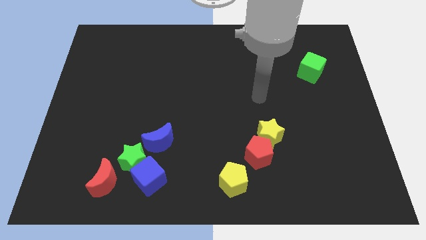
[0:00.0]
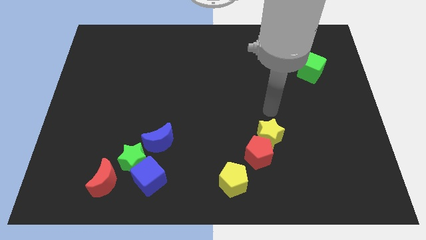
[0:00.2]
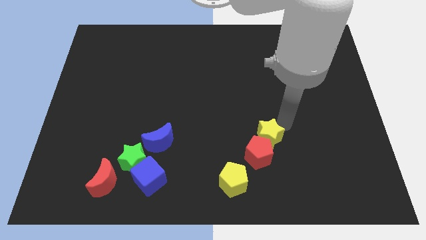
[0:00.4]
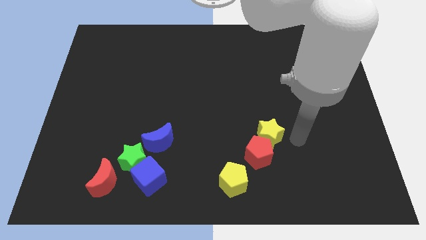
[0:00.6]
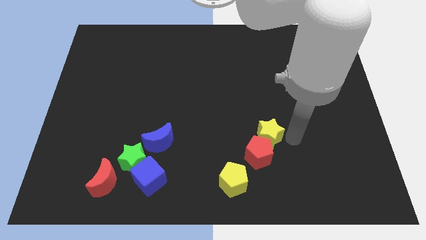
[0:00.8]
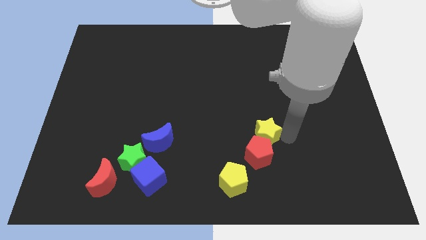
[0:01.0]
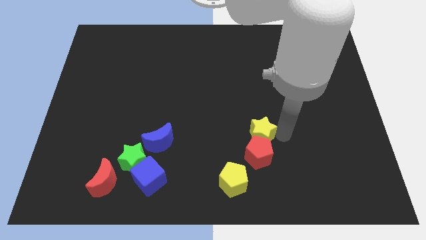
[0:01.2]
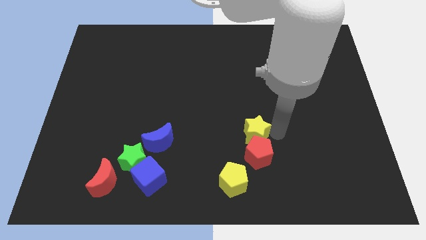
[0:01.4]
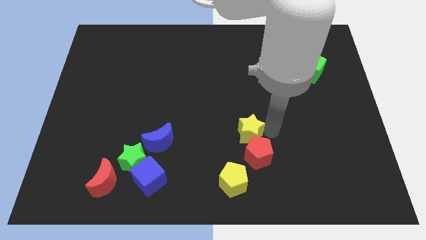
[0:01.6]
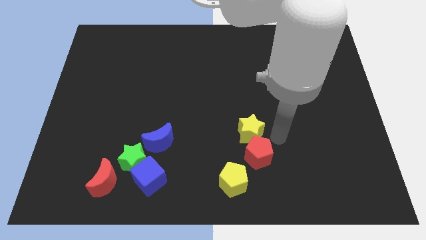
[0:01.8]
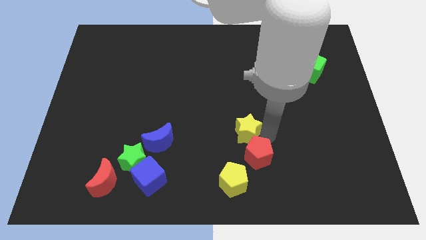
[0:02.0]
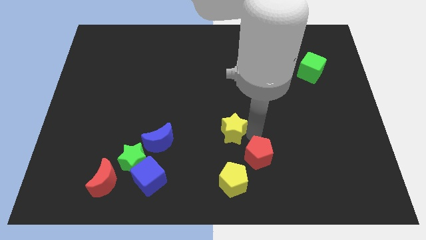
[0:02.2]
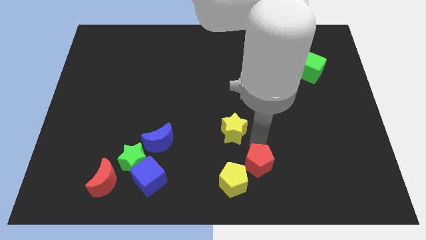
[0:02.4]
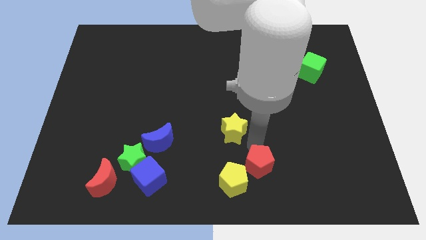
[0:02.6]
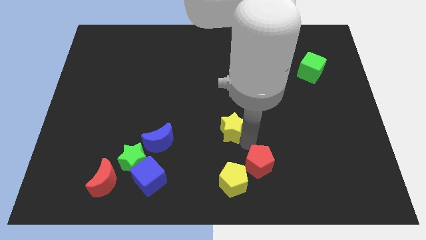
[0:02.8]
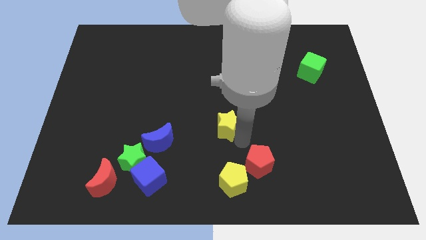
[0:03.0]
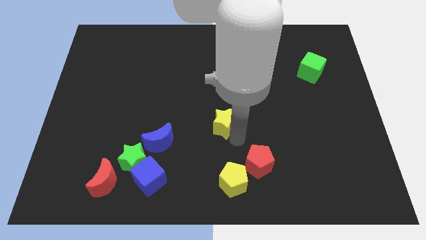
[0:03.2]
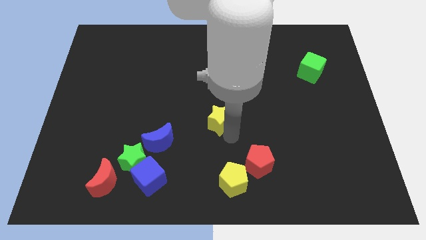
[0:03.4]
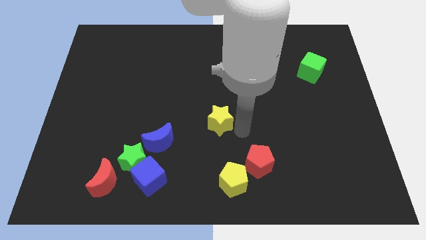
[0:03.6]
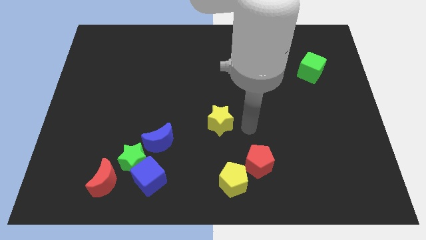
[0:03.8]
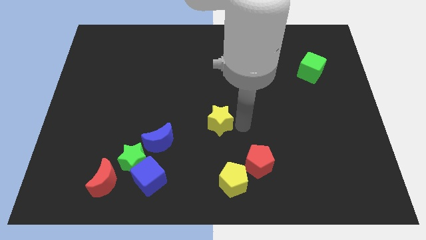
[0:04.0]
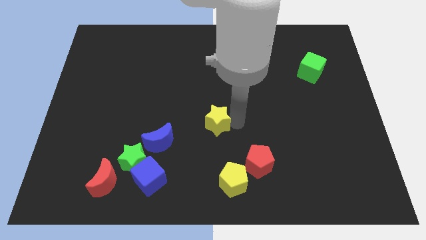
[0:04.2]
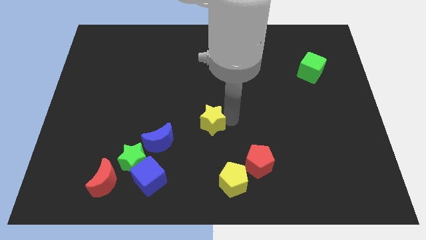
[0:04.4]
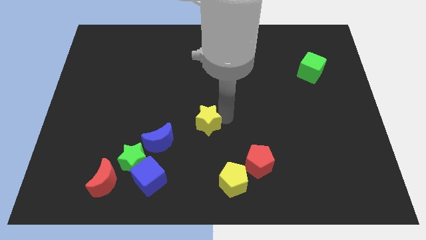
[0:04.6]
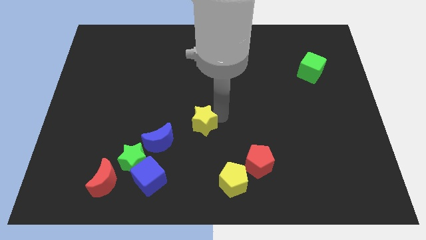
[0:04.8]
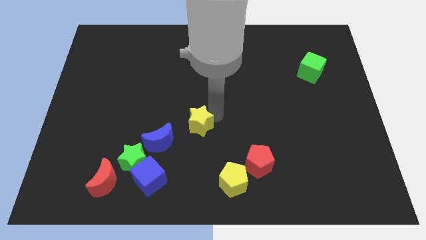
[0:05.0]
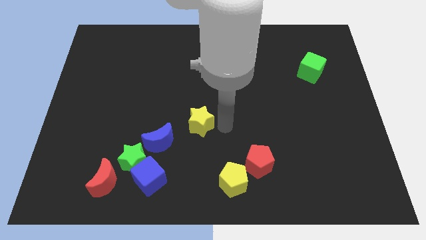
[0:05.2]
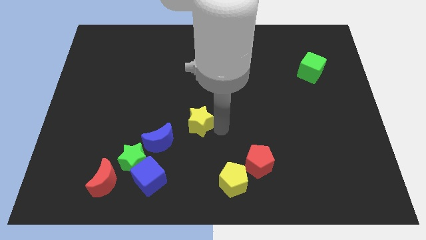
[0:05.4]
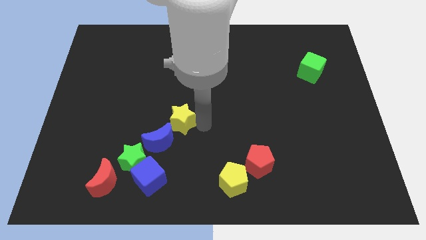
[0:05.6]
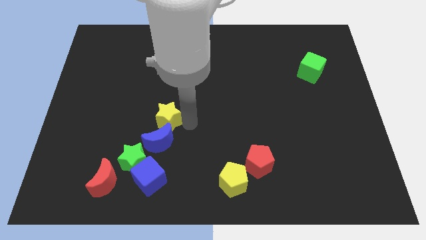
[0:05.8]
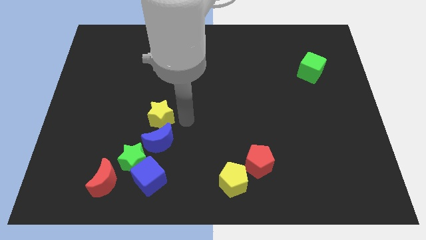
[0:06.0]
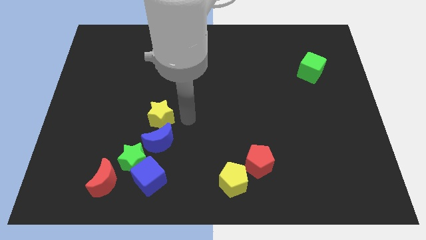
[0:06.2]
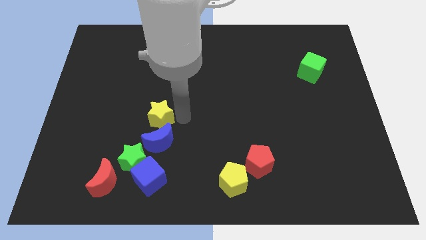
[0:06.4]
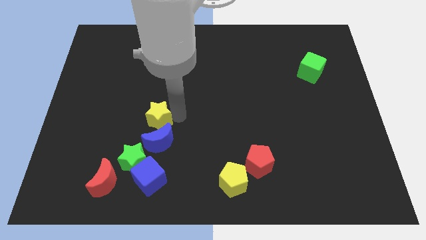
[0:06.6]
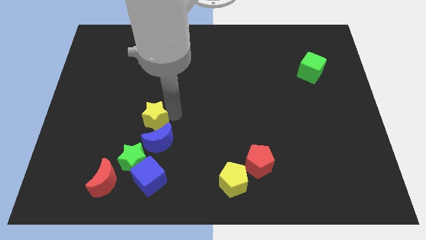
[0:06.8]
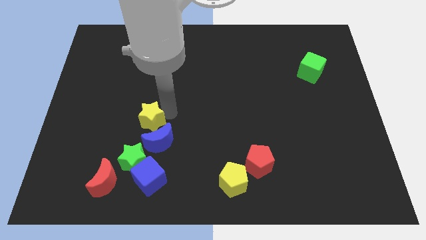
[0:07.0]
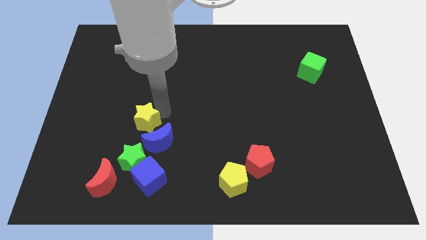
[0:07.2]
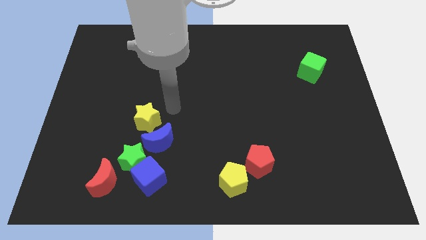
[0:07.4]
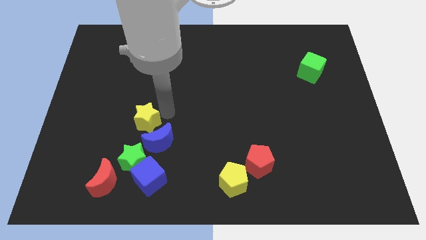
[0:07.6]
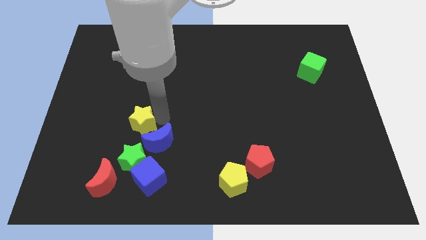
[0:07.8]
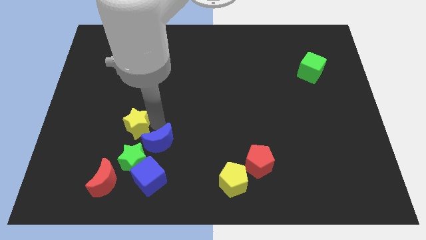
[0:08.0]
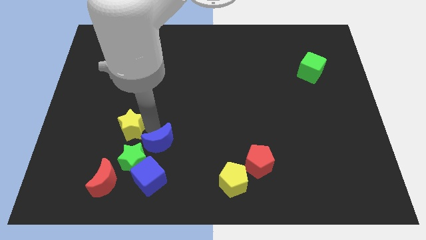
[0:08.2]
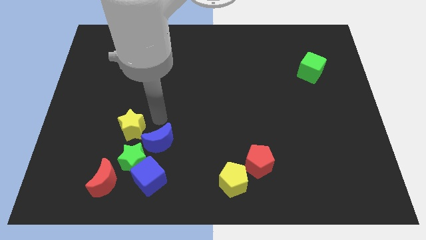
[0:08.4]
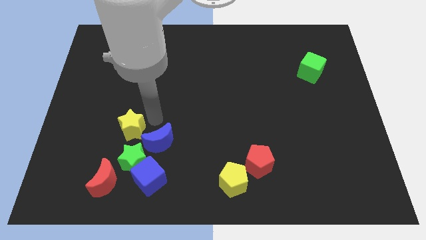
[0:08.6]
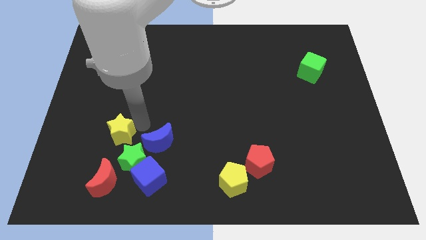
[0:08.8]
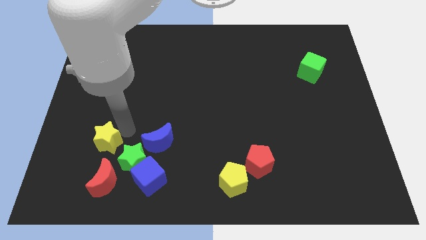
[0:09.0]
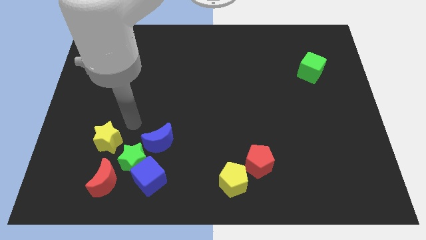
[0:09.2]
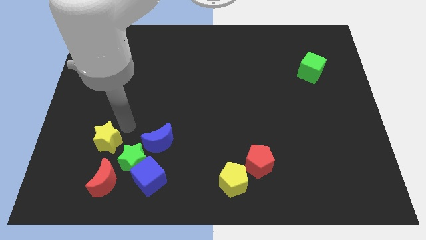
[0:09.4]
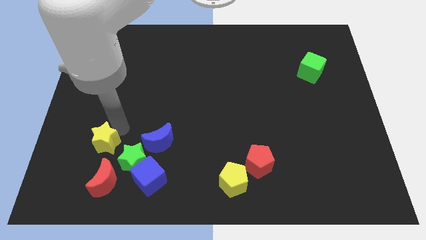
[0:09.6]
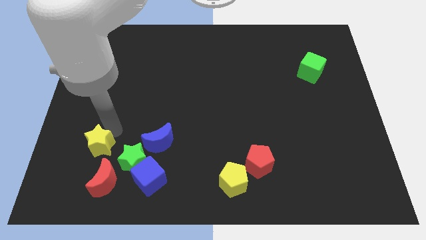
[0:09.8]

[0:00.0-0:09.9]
slide the yellow star diagonally up and to the left of the red moon

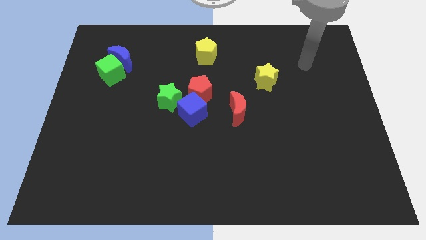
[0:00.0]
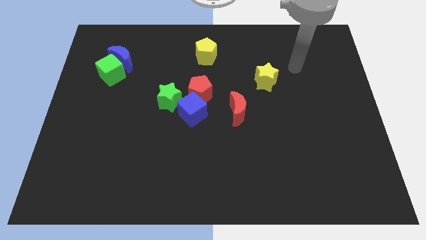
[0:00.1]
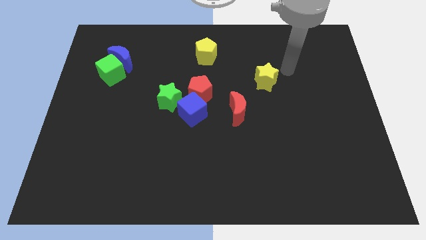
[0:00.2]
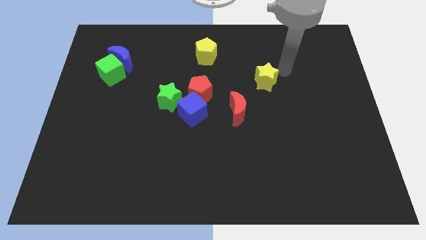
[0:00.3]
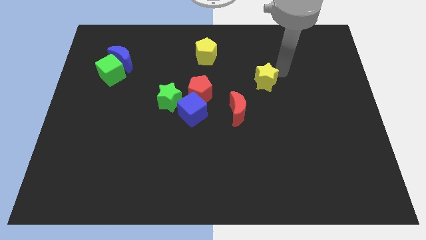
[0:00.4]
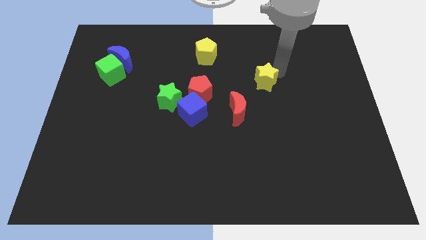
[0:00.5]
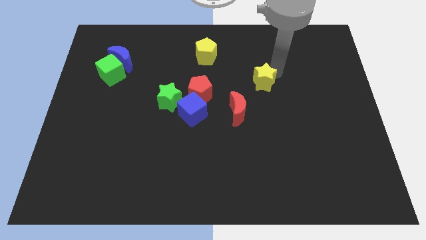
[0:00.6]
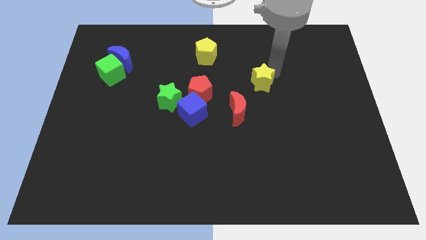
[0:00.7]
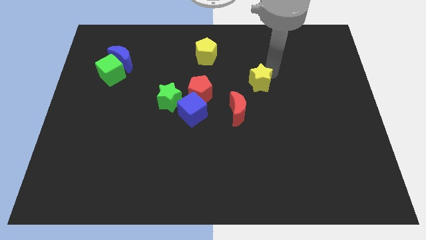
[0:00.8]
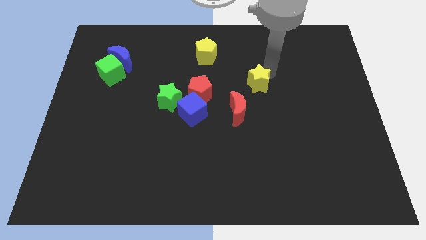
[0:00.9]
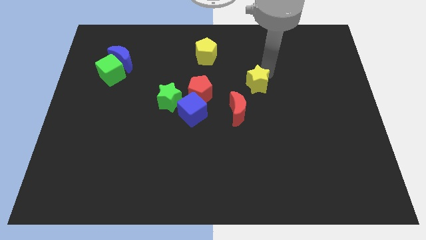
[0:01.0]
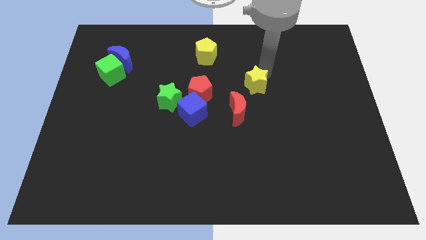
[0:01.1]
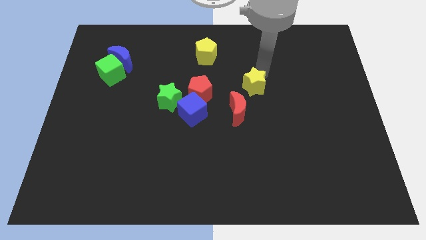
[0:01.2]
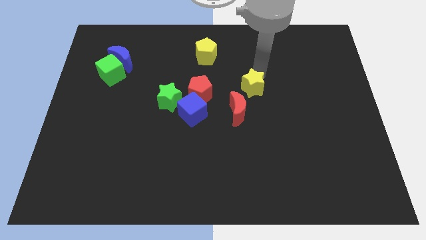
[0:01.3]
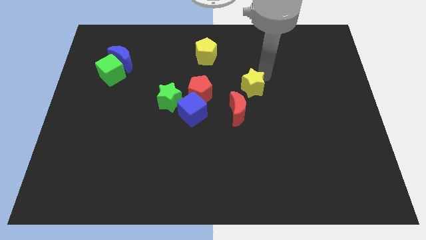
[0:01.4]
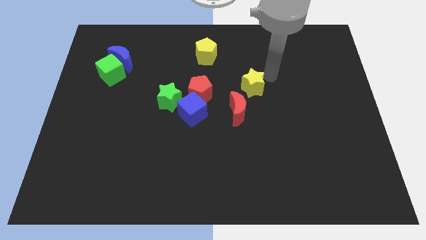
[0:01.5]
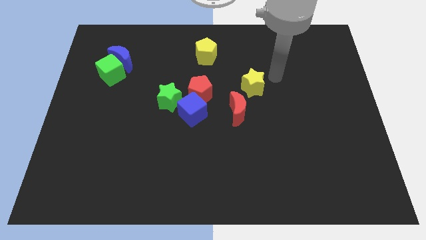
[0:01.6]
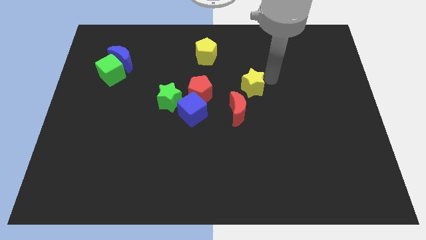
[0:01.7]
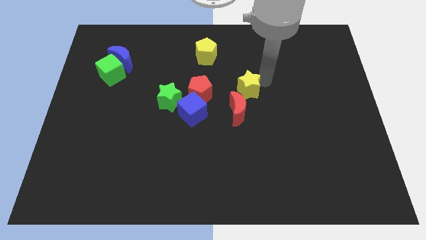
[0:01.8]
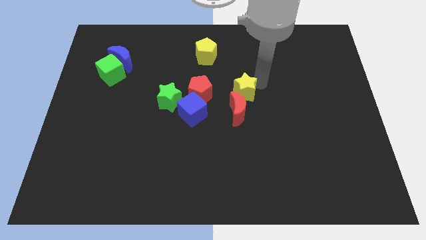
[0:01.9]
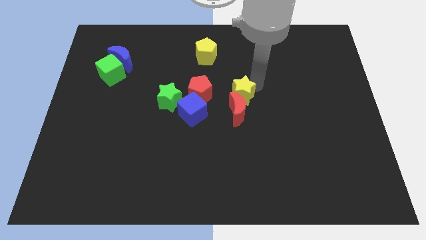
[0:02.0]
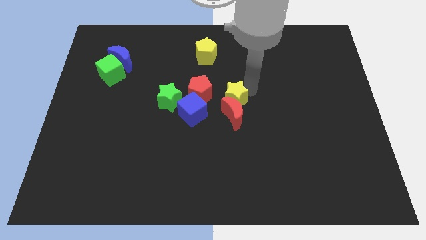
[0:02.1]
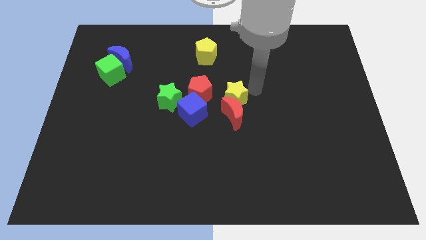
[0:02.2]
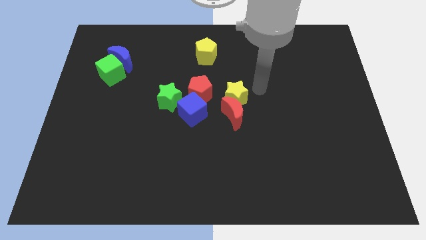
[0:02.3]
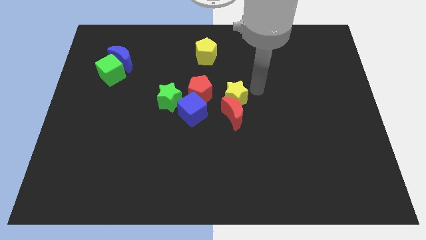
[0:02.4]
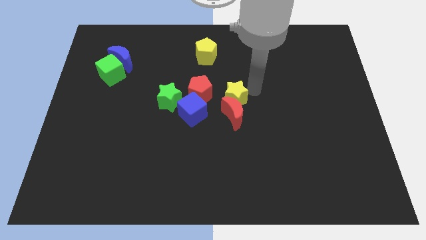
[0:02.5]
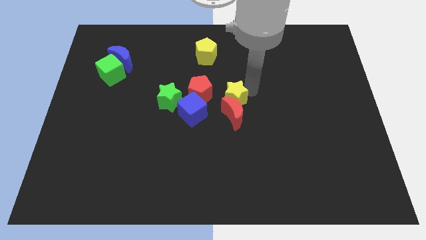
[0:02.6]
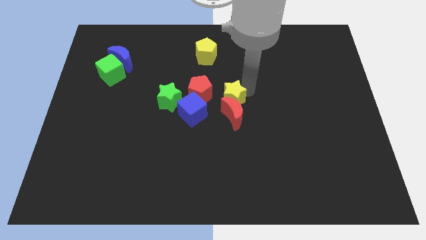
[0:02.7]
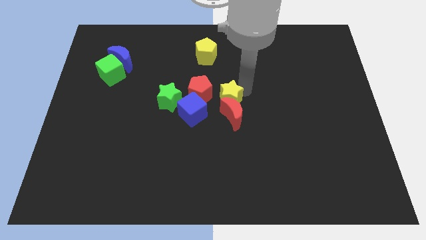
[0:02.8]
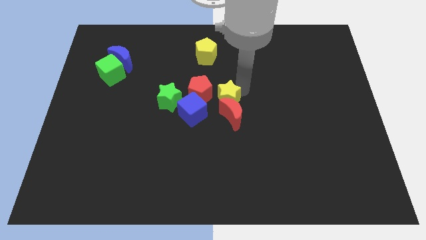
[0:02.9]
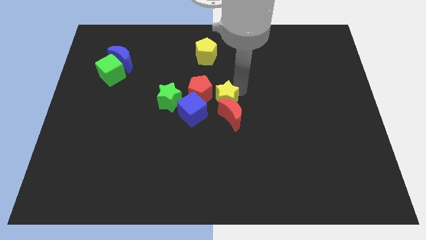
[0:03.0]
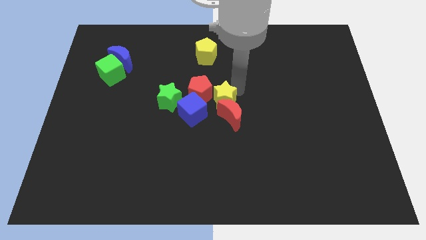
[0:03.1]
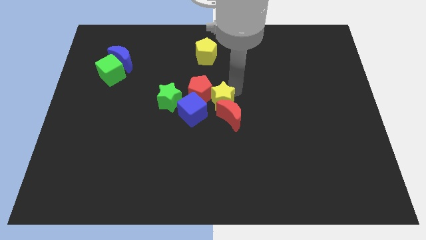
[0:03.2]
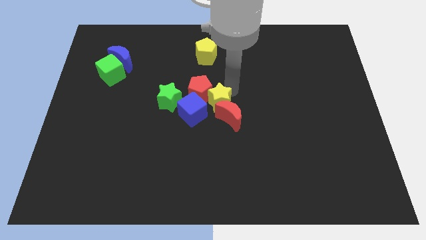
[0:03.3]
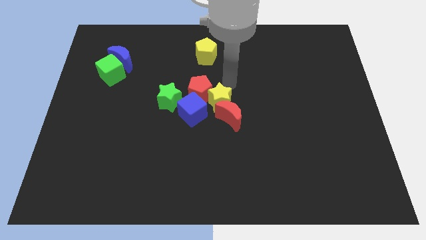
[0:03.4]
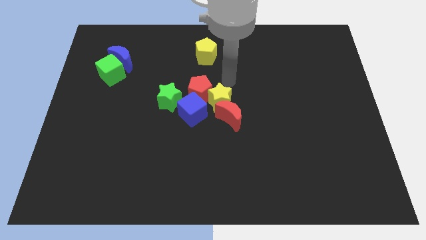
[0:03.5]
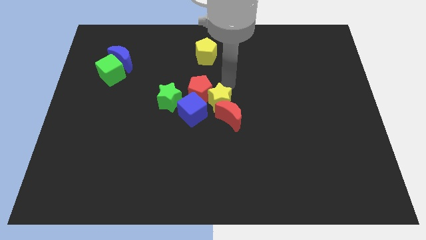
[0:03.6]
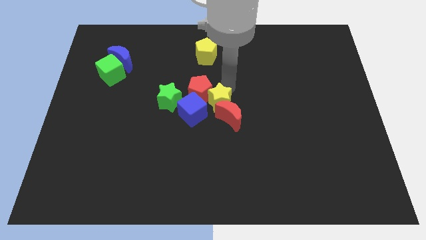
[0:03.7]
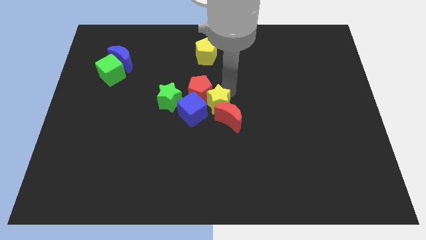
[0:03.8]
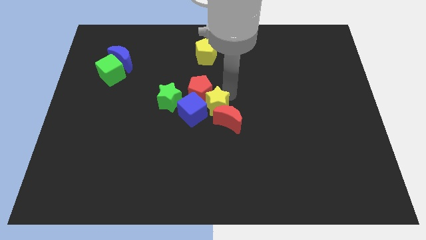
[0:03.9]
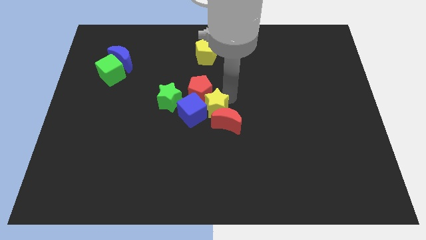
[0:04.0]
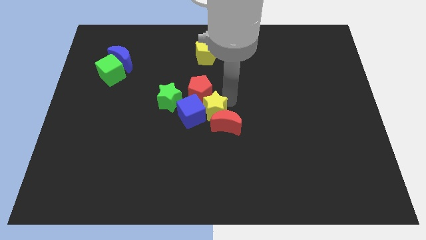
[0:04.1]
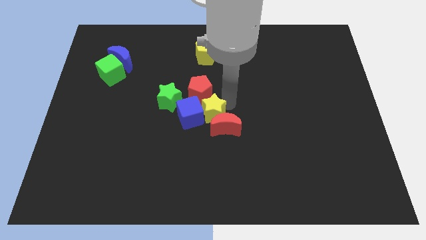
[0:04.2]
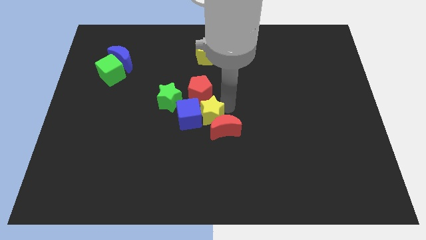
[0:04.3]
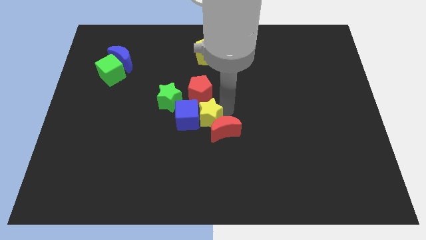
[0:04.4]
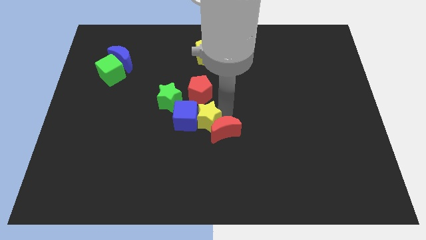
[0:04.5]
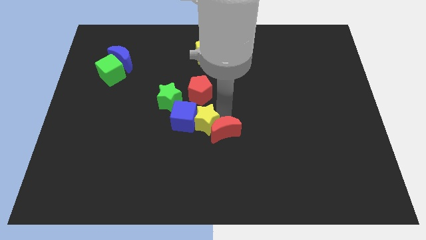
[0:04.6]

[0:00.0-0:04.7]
slide the yellow star to the bottom left of the red moon
